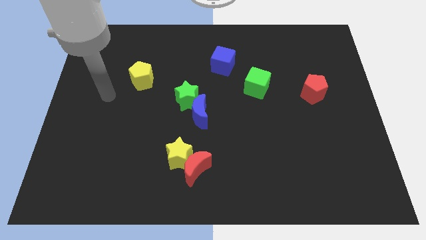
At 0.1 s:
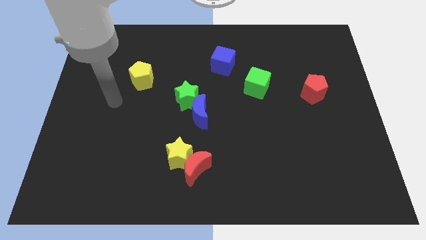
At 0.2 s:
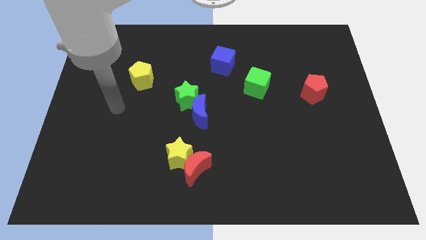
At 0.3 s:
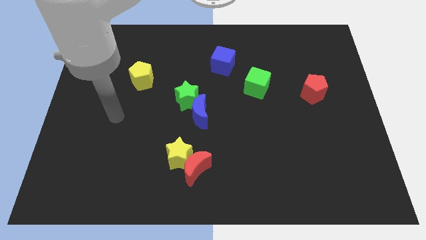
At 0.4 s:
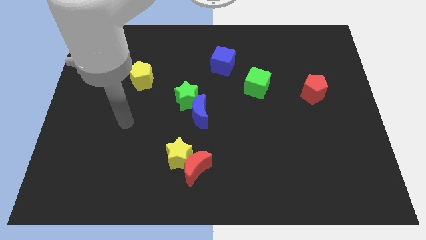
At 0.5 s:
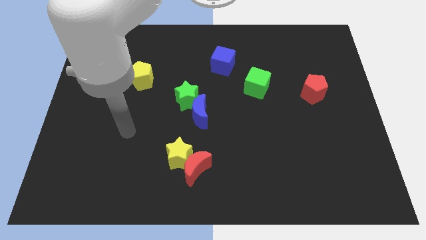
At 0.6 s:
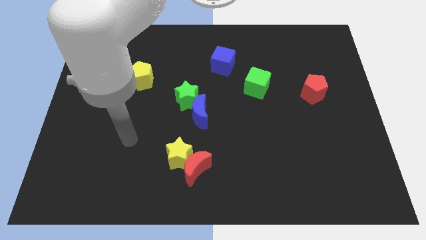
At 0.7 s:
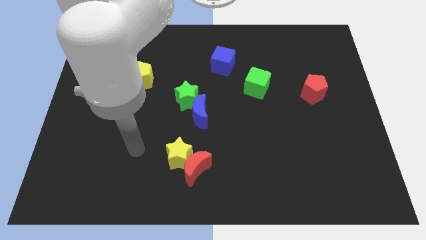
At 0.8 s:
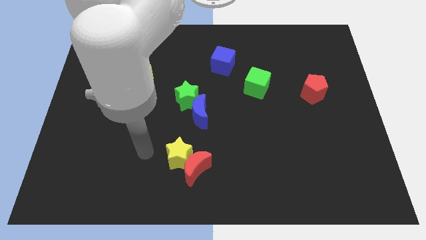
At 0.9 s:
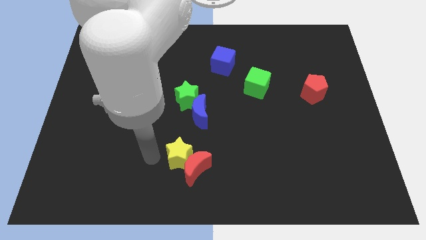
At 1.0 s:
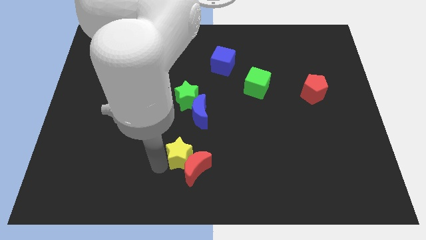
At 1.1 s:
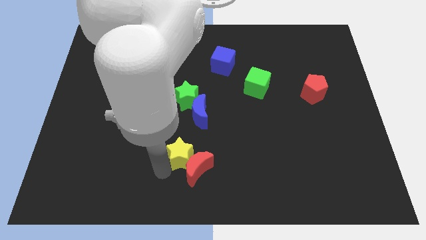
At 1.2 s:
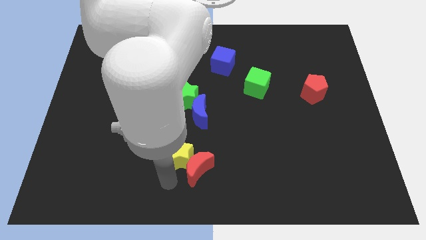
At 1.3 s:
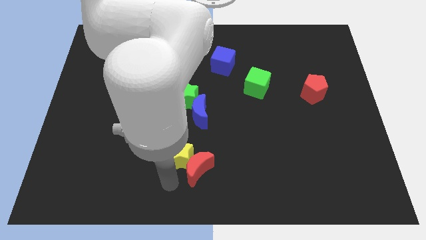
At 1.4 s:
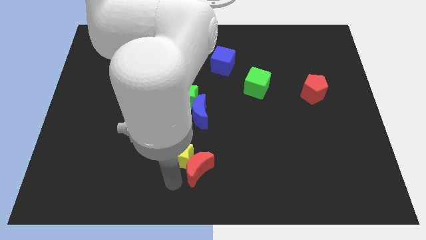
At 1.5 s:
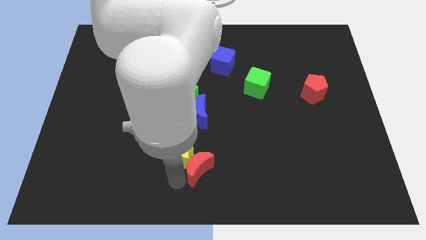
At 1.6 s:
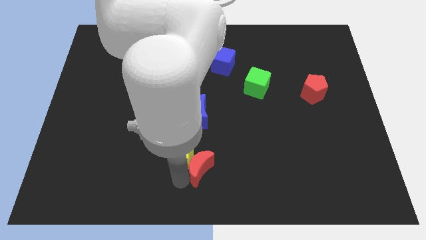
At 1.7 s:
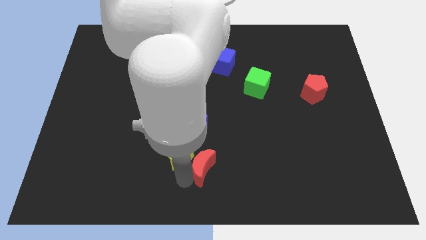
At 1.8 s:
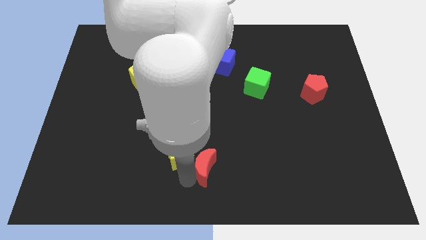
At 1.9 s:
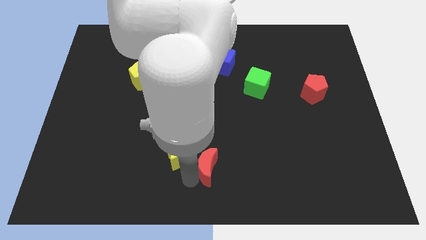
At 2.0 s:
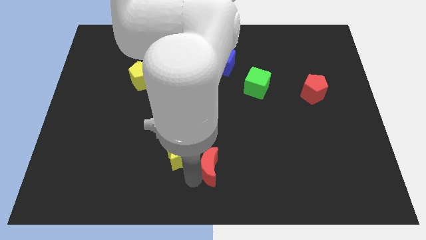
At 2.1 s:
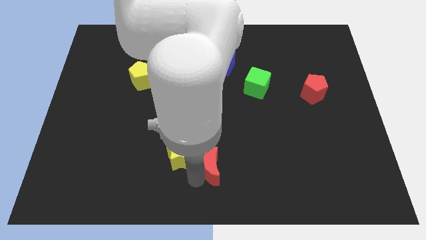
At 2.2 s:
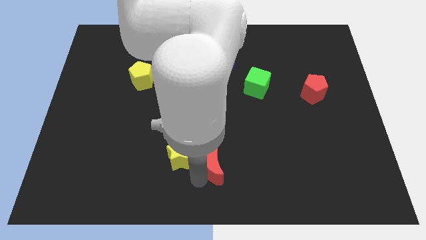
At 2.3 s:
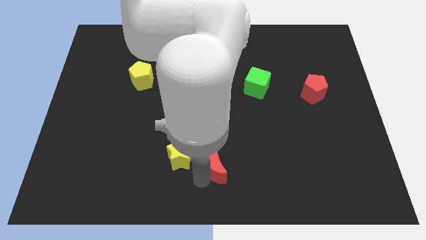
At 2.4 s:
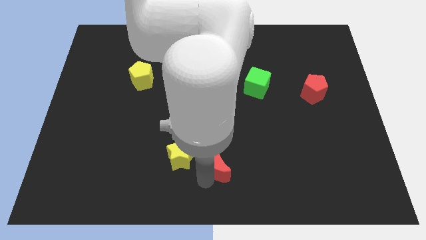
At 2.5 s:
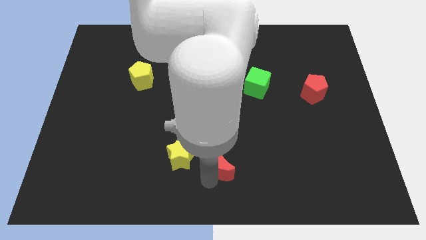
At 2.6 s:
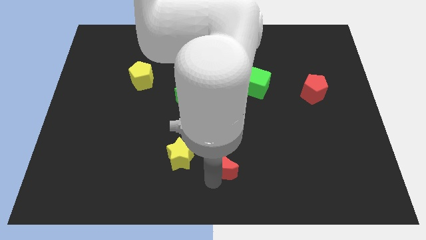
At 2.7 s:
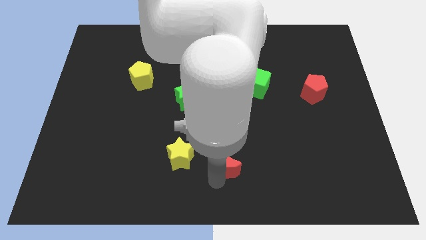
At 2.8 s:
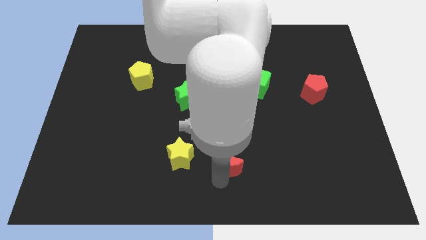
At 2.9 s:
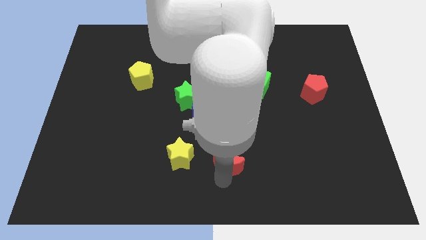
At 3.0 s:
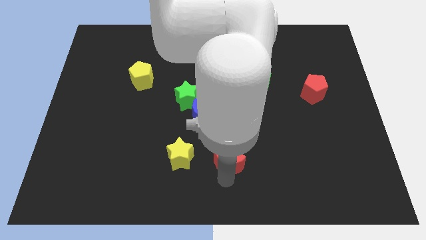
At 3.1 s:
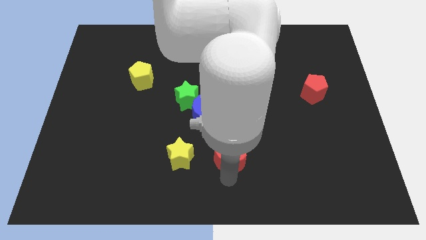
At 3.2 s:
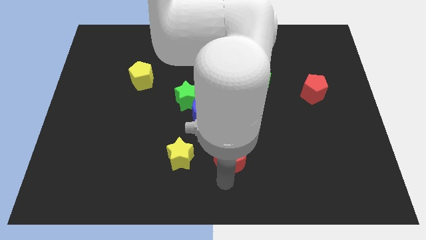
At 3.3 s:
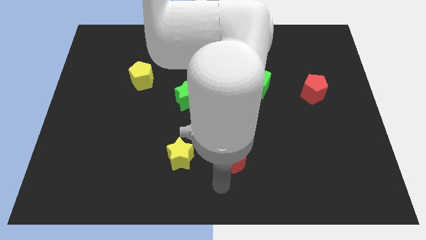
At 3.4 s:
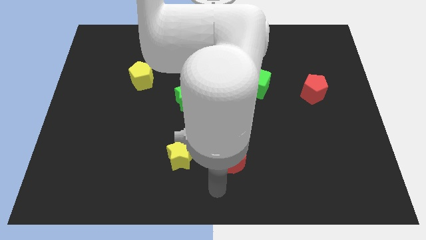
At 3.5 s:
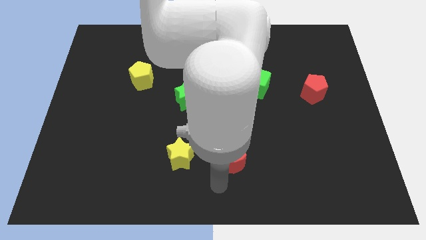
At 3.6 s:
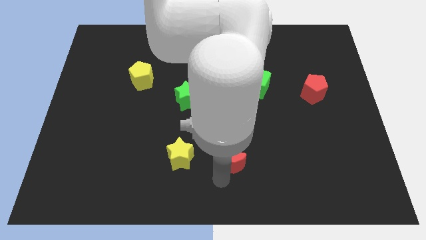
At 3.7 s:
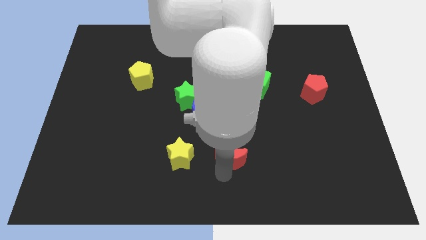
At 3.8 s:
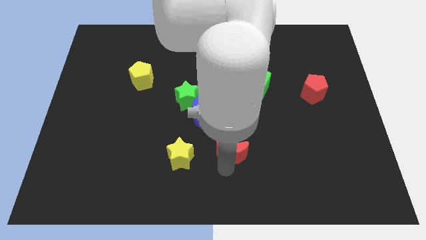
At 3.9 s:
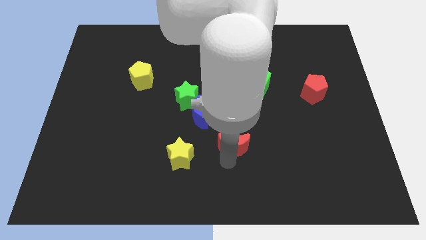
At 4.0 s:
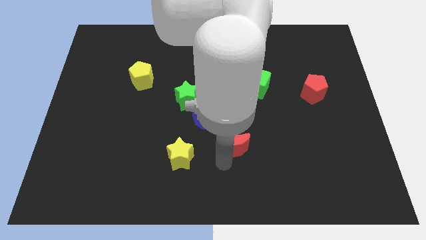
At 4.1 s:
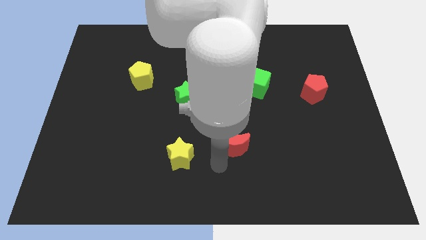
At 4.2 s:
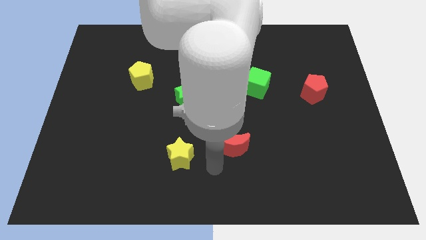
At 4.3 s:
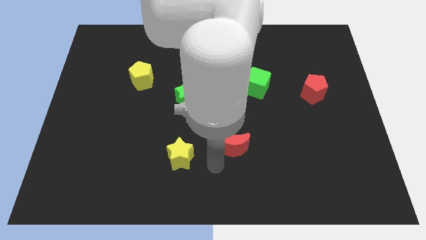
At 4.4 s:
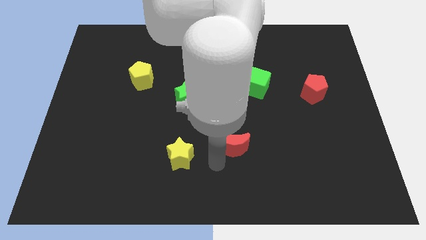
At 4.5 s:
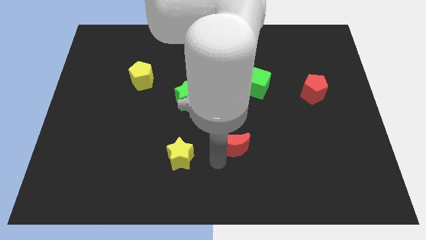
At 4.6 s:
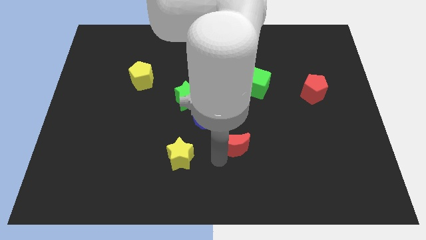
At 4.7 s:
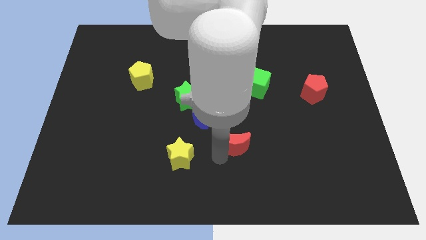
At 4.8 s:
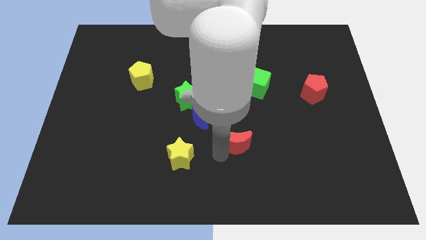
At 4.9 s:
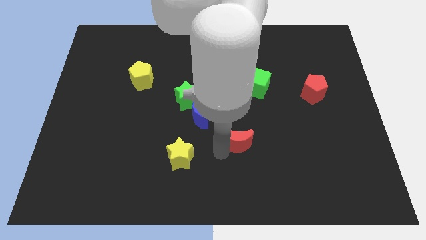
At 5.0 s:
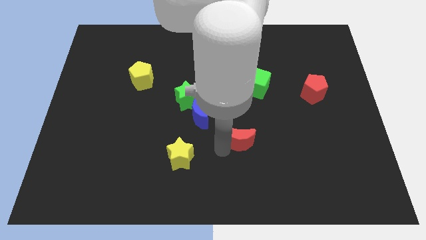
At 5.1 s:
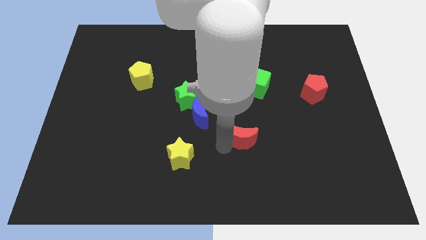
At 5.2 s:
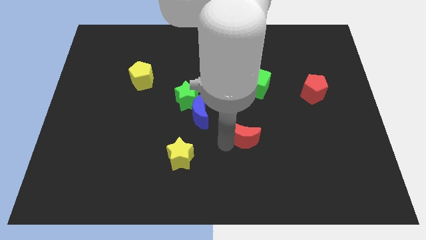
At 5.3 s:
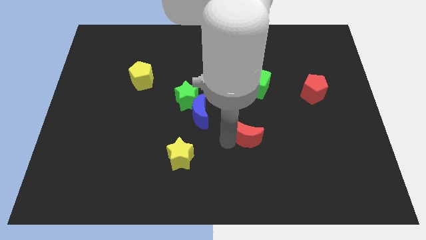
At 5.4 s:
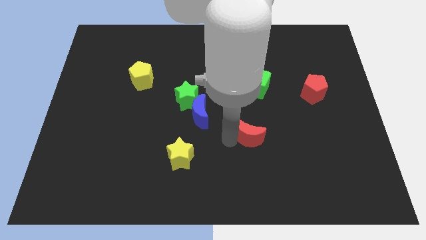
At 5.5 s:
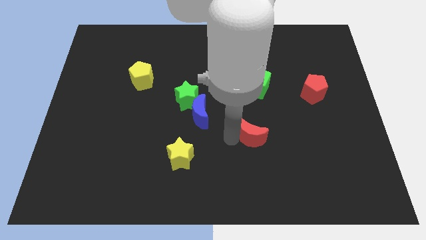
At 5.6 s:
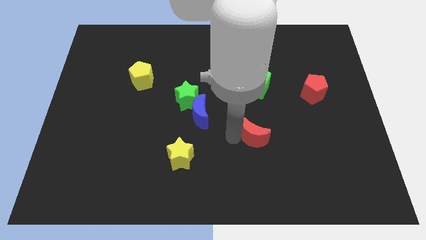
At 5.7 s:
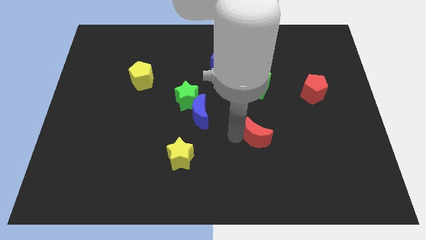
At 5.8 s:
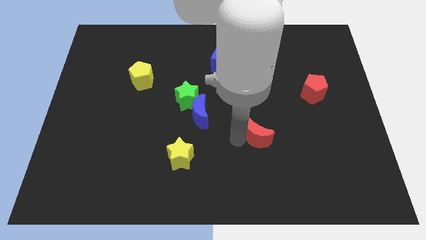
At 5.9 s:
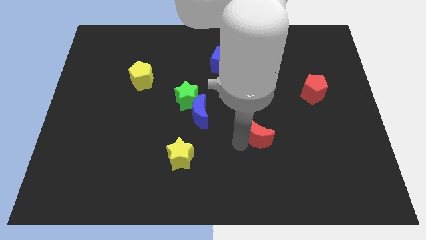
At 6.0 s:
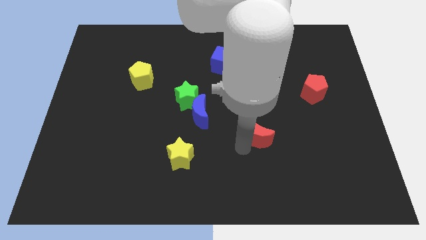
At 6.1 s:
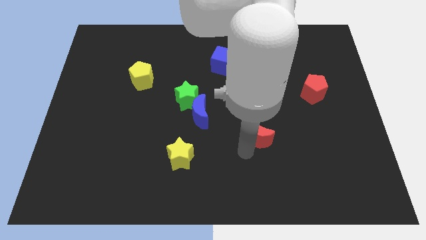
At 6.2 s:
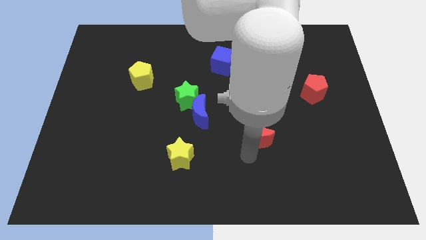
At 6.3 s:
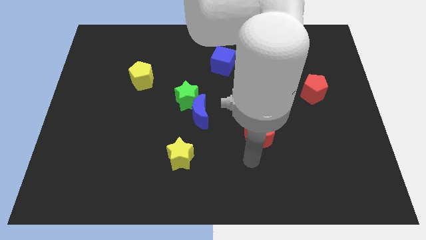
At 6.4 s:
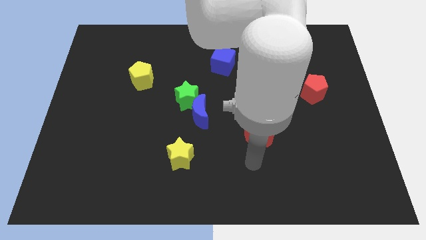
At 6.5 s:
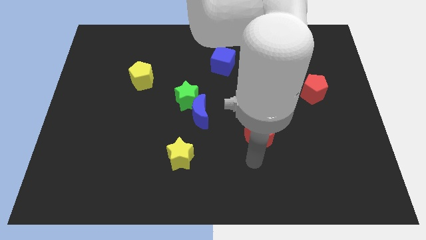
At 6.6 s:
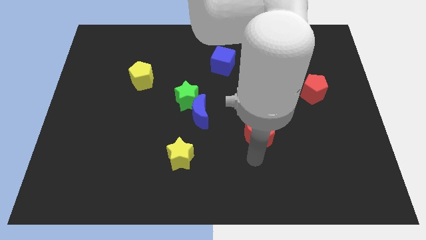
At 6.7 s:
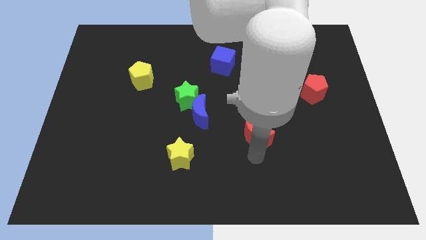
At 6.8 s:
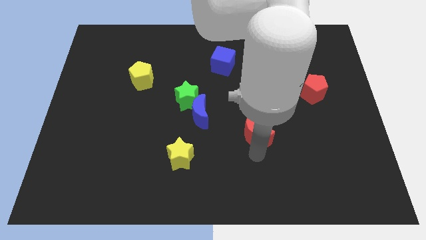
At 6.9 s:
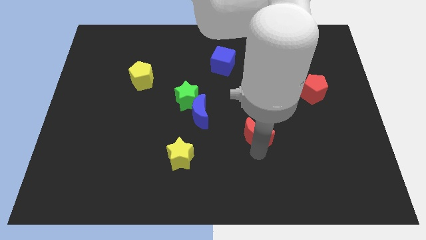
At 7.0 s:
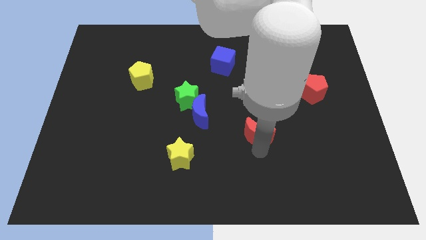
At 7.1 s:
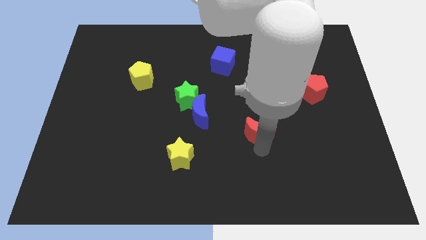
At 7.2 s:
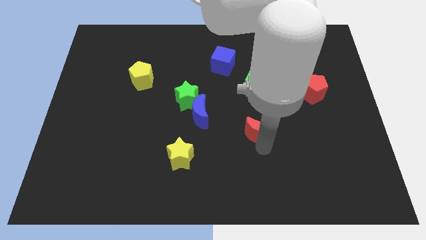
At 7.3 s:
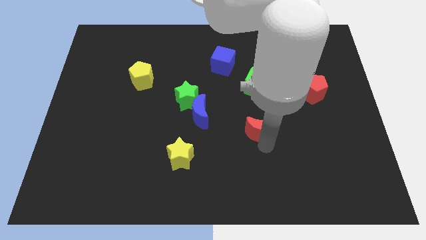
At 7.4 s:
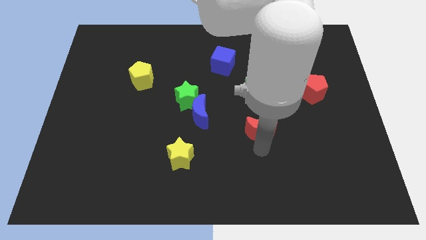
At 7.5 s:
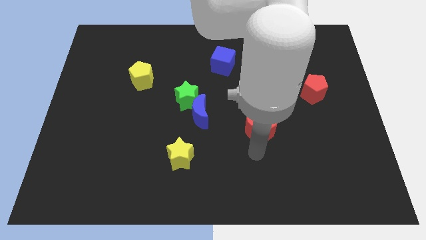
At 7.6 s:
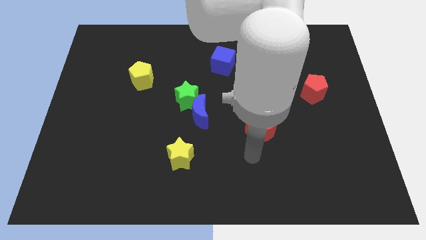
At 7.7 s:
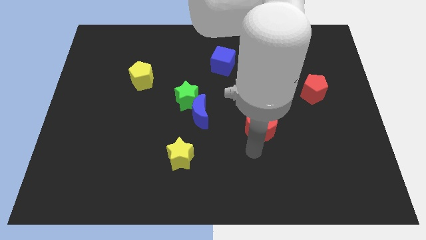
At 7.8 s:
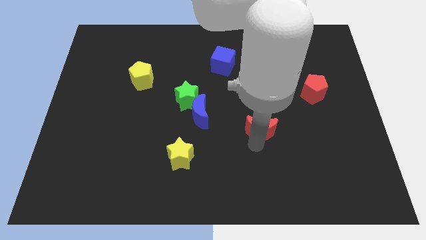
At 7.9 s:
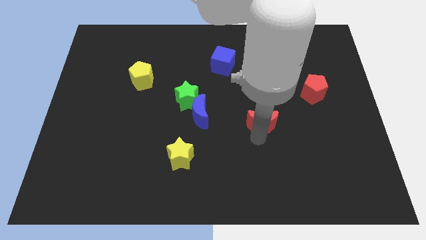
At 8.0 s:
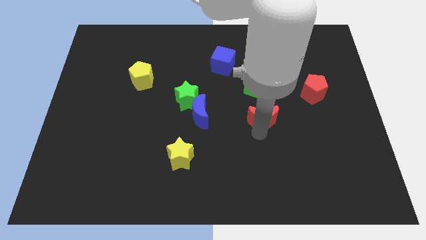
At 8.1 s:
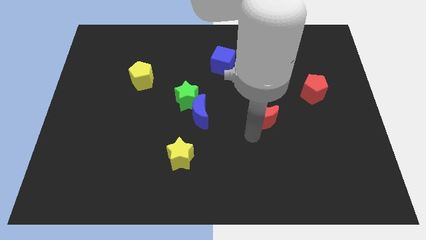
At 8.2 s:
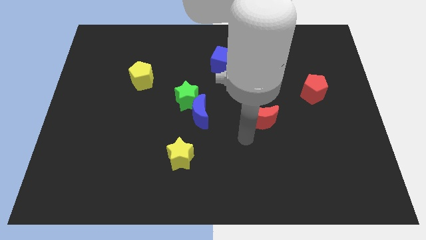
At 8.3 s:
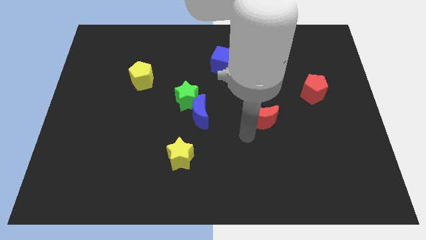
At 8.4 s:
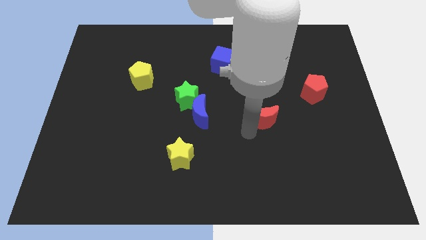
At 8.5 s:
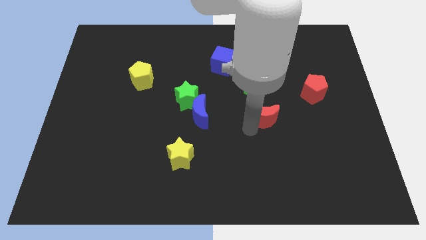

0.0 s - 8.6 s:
slide the red moon upwards and to the right diagonally
